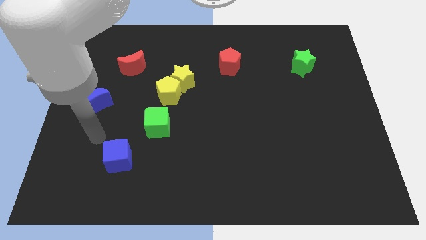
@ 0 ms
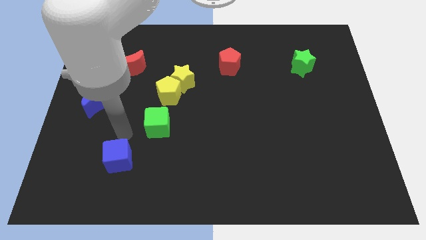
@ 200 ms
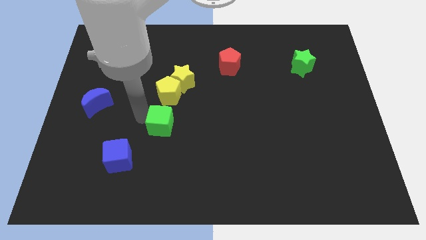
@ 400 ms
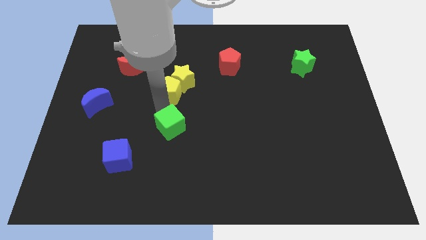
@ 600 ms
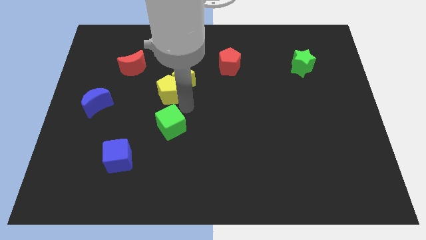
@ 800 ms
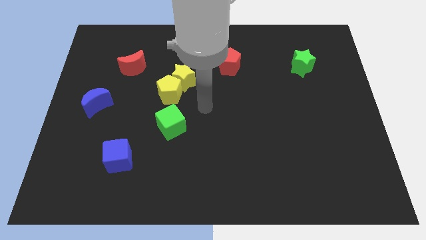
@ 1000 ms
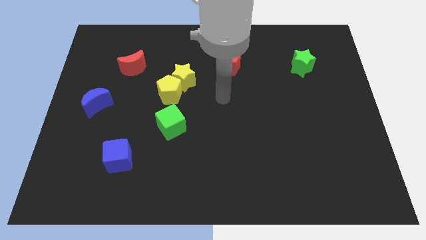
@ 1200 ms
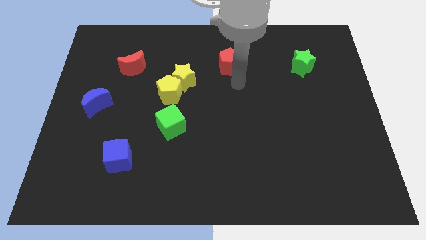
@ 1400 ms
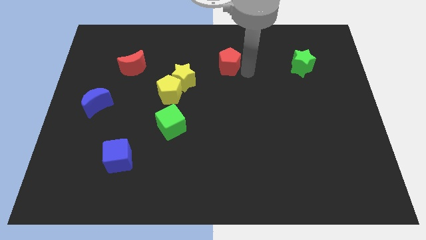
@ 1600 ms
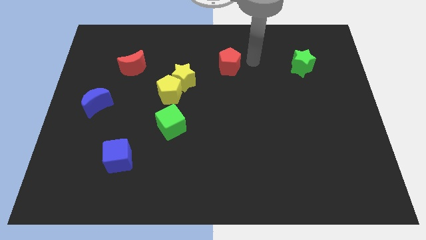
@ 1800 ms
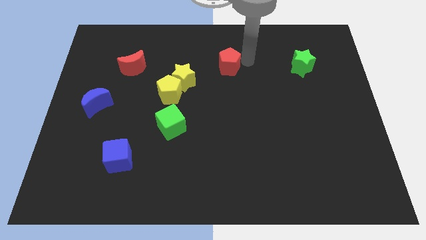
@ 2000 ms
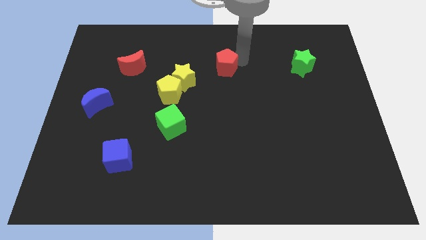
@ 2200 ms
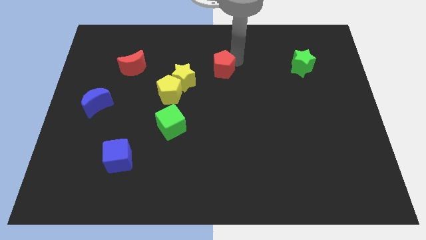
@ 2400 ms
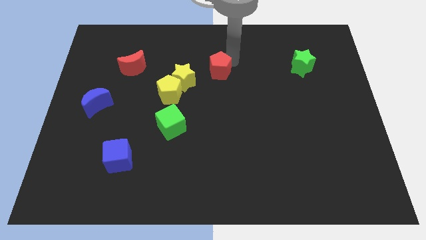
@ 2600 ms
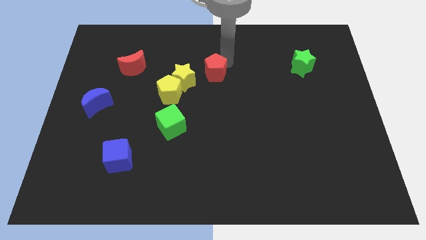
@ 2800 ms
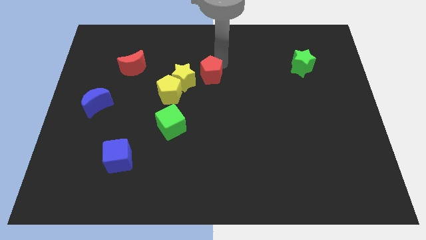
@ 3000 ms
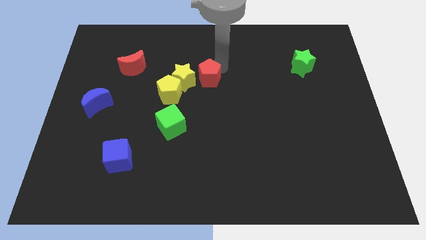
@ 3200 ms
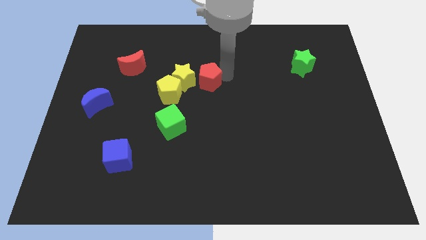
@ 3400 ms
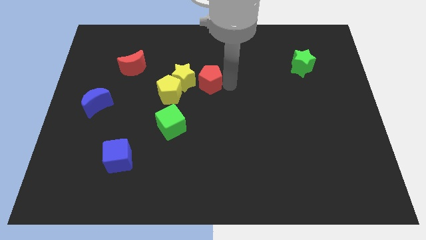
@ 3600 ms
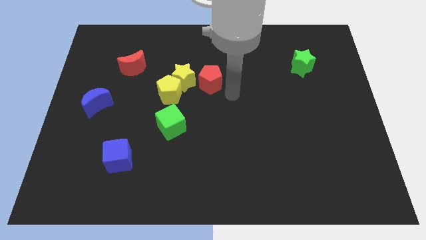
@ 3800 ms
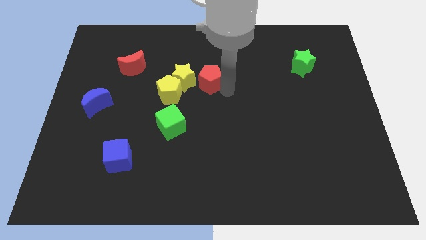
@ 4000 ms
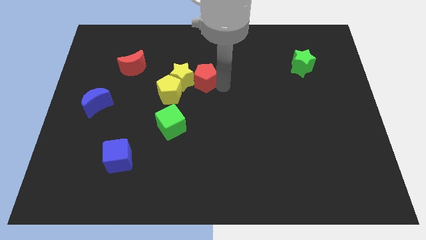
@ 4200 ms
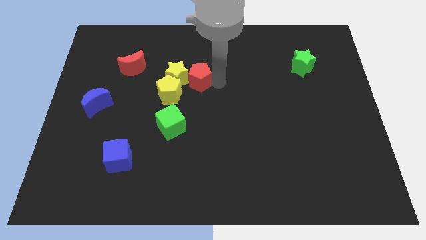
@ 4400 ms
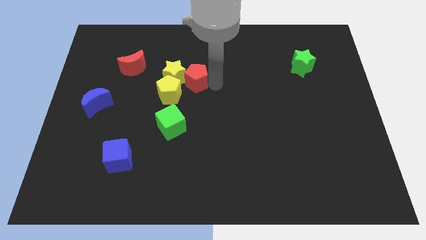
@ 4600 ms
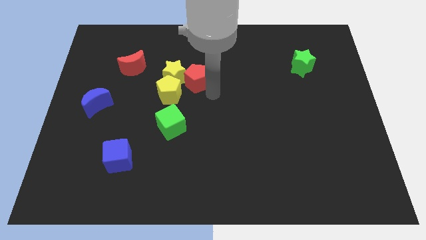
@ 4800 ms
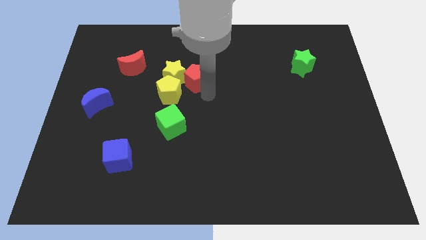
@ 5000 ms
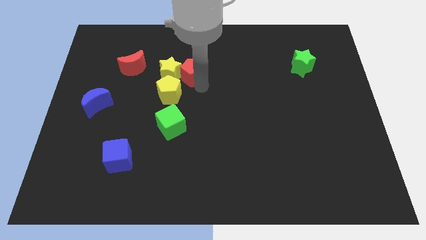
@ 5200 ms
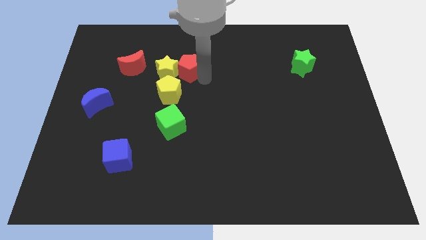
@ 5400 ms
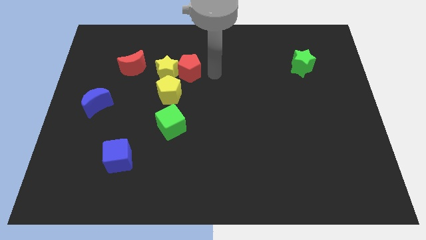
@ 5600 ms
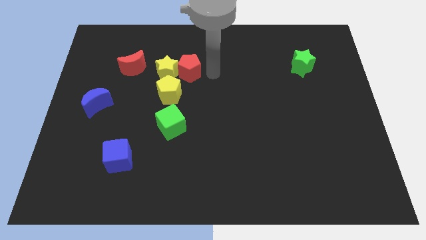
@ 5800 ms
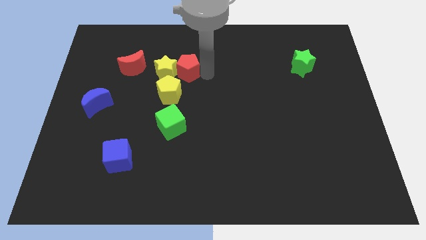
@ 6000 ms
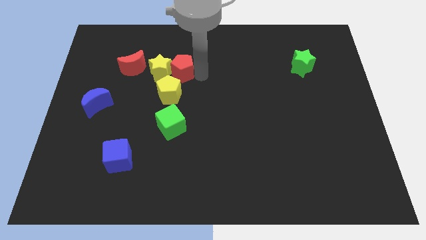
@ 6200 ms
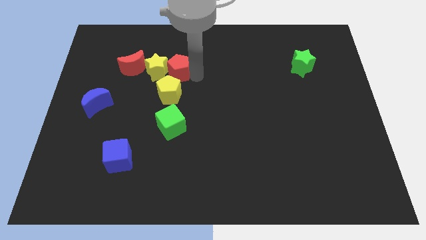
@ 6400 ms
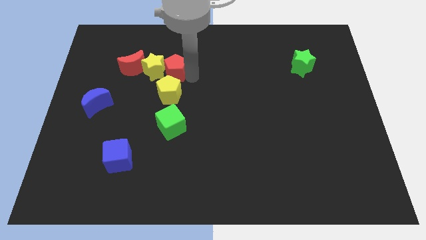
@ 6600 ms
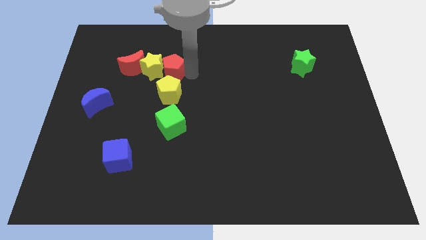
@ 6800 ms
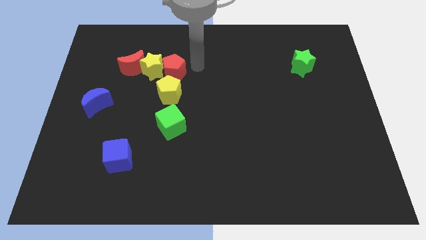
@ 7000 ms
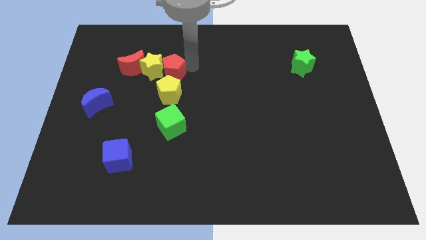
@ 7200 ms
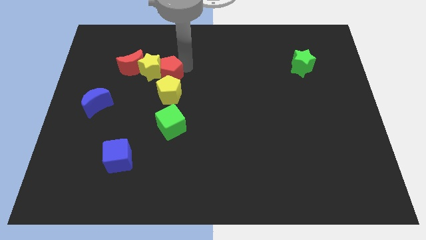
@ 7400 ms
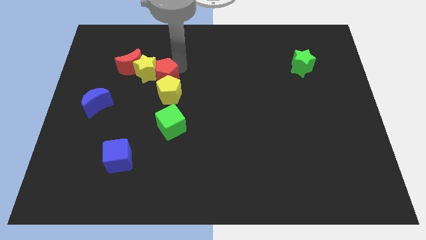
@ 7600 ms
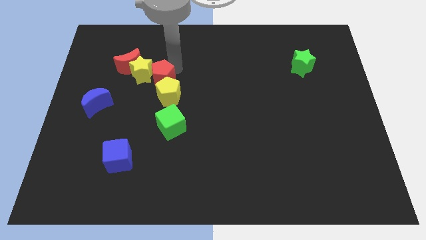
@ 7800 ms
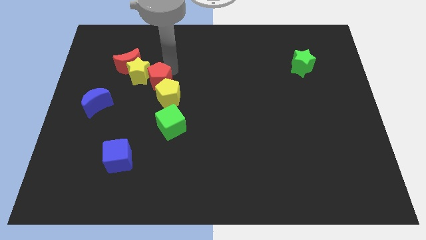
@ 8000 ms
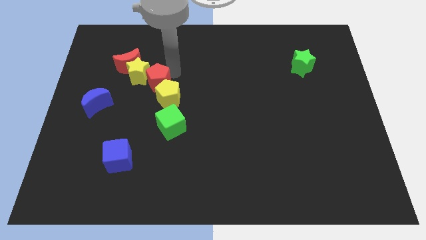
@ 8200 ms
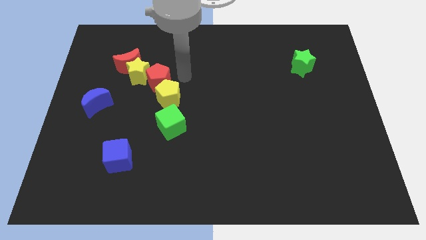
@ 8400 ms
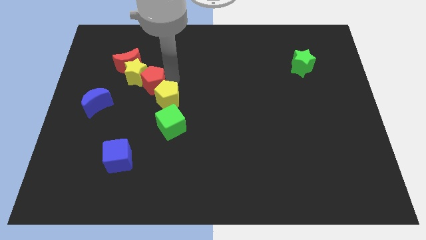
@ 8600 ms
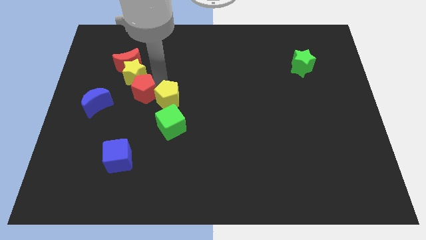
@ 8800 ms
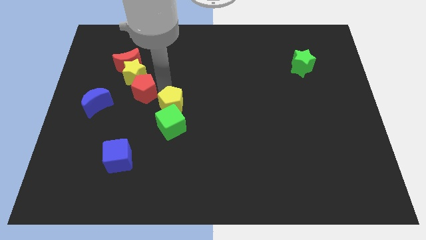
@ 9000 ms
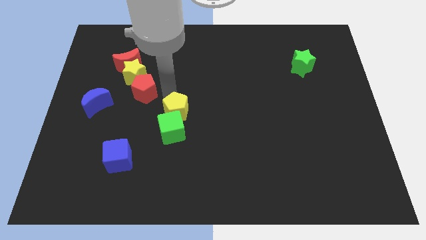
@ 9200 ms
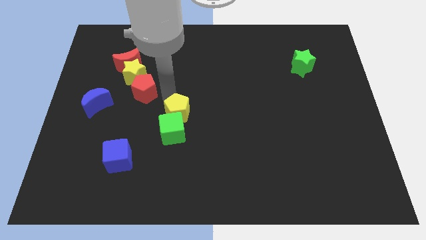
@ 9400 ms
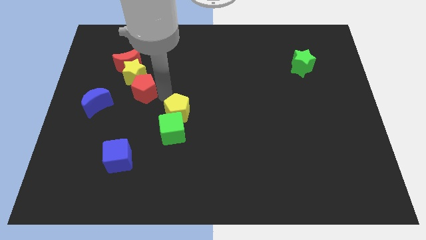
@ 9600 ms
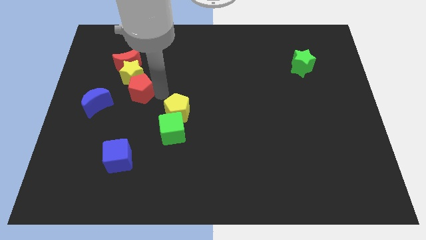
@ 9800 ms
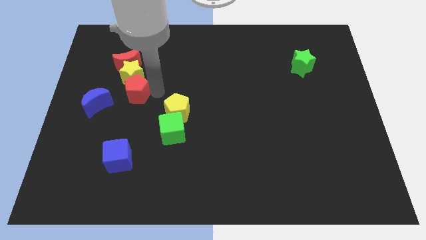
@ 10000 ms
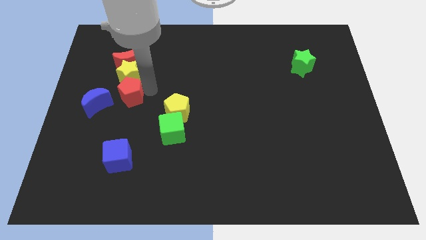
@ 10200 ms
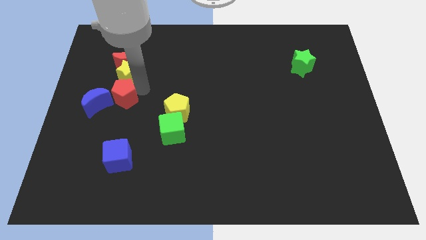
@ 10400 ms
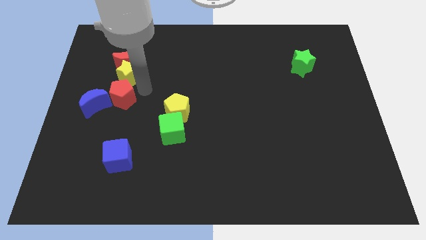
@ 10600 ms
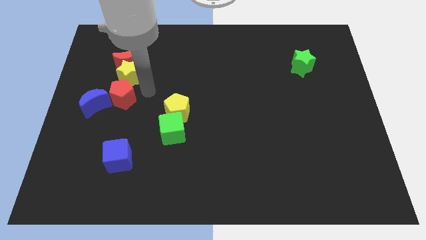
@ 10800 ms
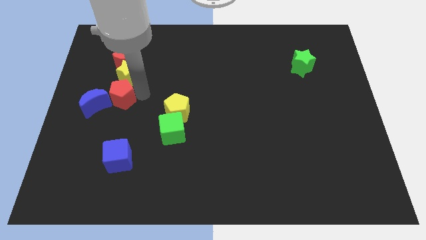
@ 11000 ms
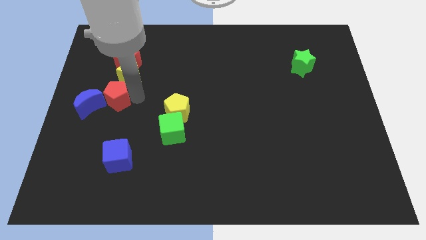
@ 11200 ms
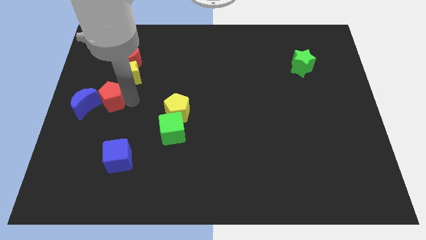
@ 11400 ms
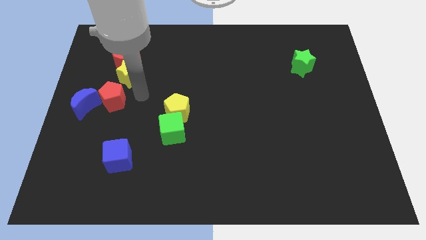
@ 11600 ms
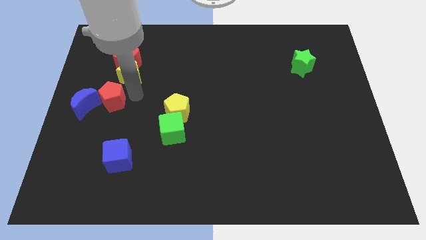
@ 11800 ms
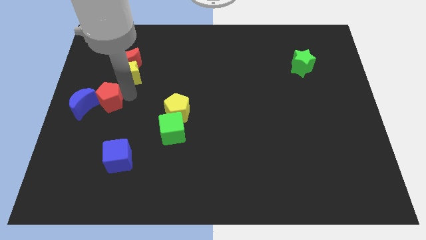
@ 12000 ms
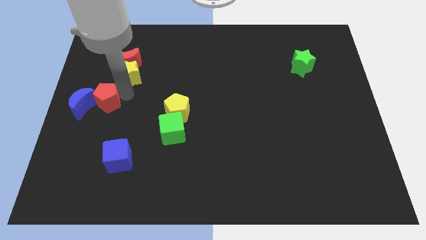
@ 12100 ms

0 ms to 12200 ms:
move the red pentagon towards the blue moon

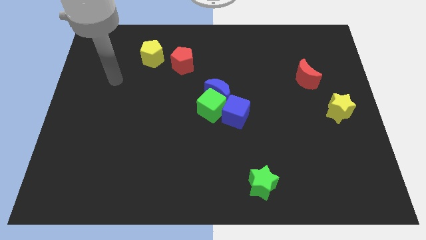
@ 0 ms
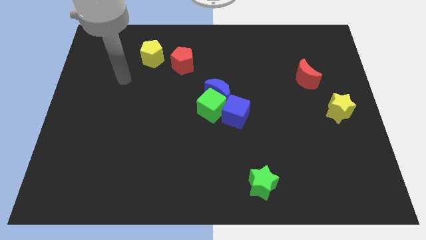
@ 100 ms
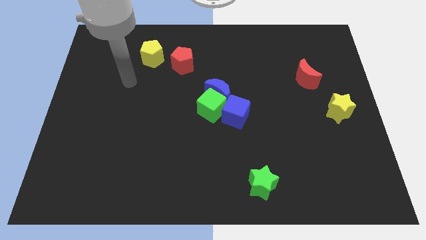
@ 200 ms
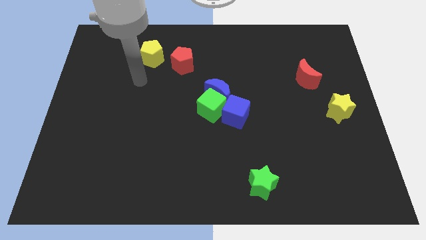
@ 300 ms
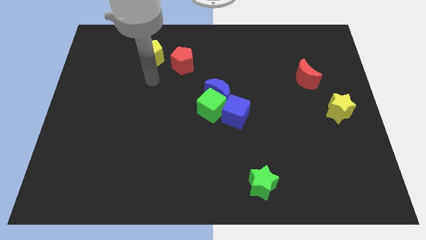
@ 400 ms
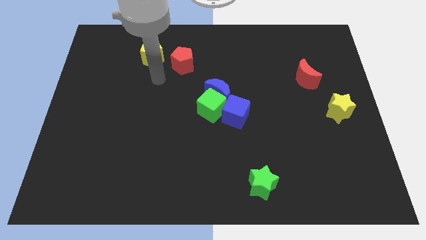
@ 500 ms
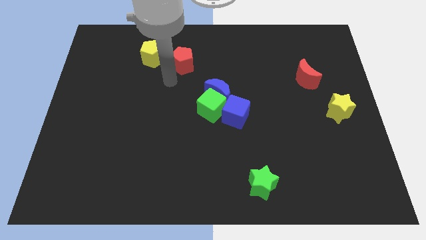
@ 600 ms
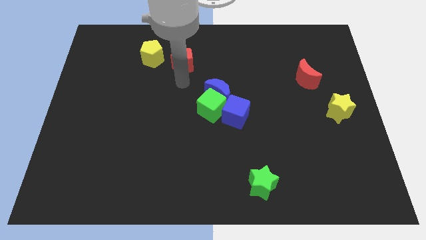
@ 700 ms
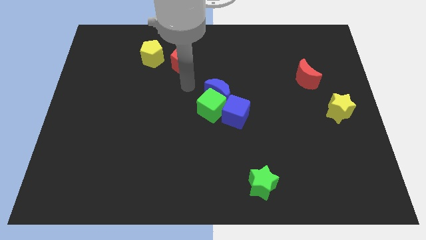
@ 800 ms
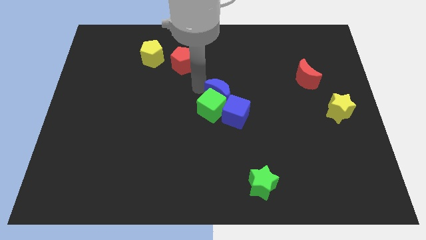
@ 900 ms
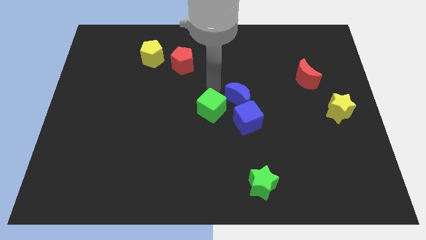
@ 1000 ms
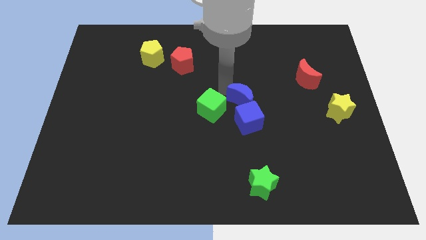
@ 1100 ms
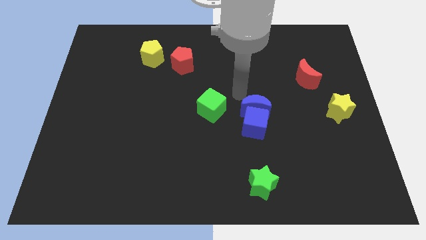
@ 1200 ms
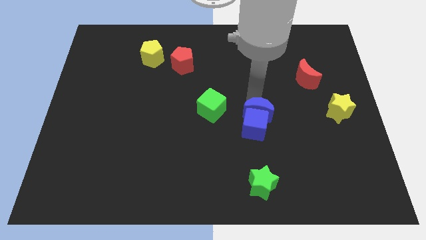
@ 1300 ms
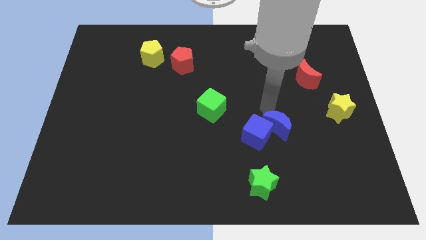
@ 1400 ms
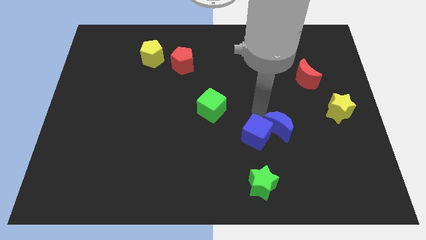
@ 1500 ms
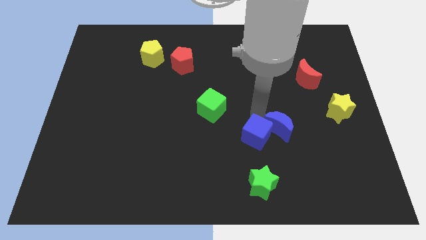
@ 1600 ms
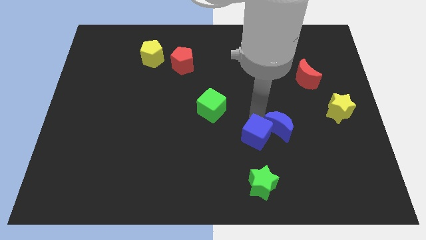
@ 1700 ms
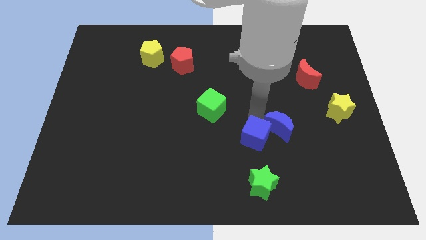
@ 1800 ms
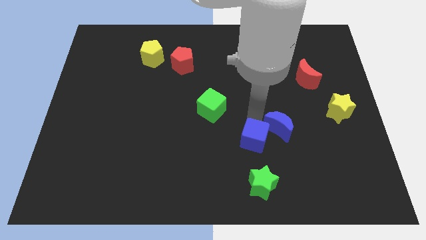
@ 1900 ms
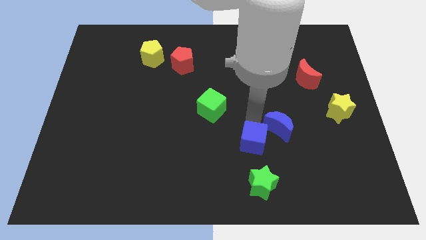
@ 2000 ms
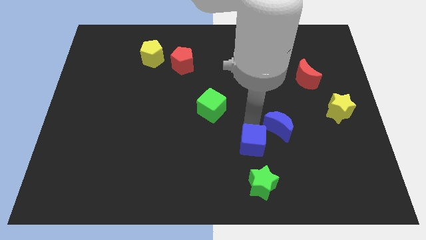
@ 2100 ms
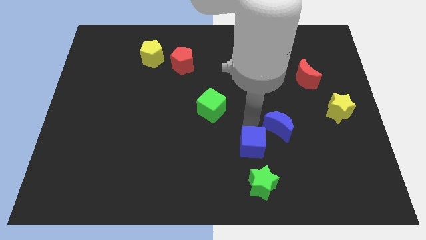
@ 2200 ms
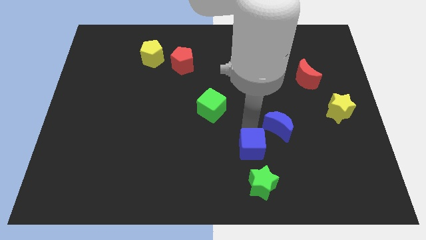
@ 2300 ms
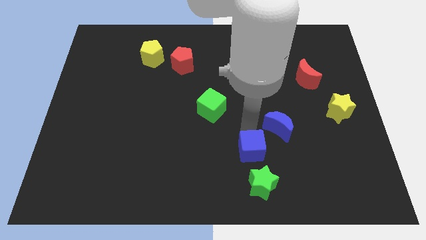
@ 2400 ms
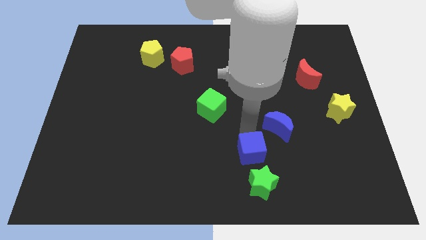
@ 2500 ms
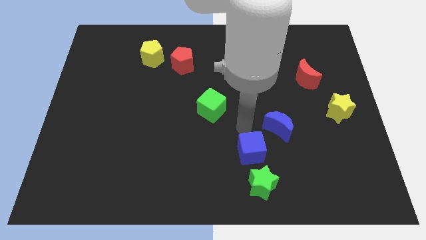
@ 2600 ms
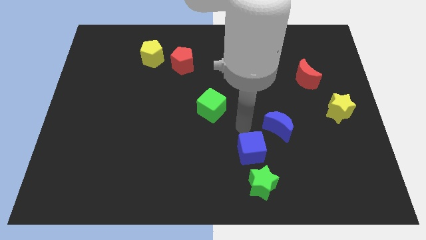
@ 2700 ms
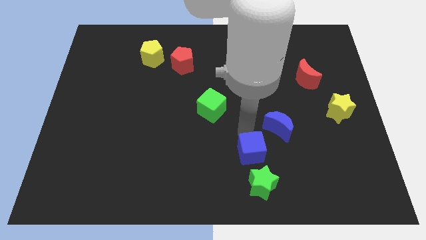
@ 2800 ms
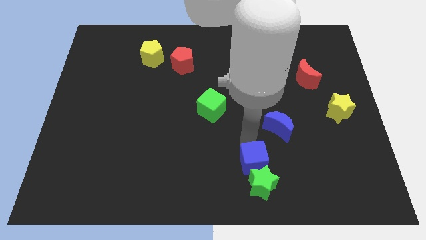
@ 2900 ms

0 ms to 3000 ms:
push the blue cube next to the green star
